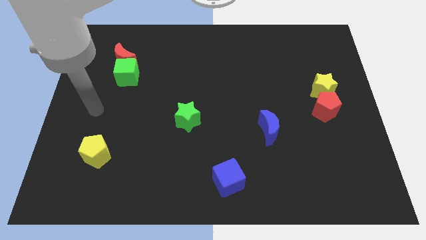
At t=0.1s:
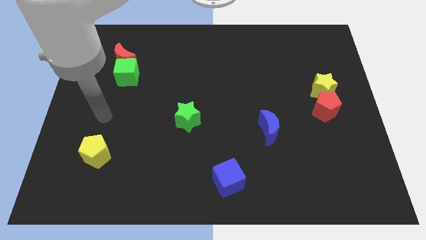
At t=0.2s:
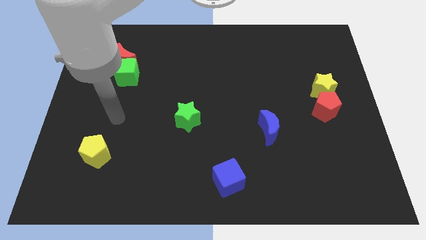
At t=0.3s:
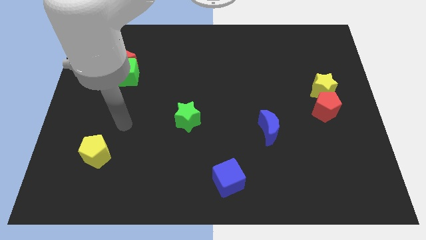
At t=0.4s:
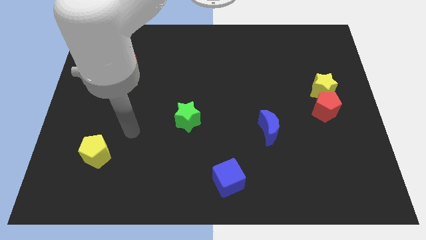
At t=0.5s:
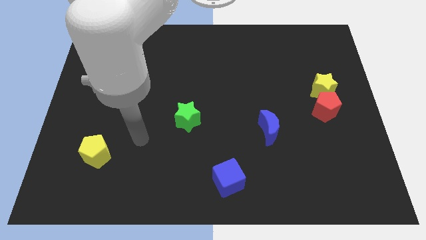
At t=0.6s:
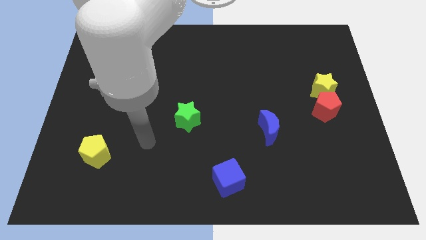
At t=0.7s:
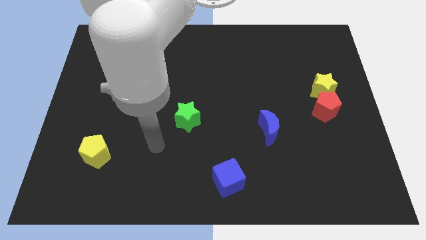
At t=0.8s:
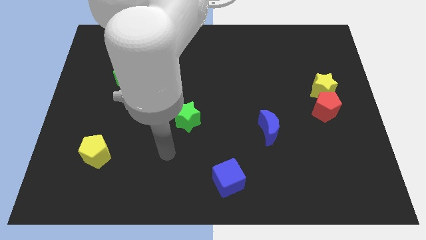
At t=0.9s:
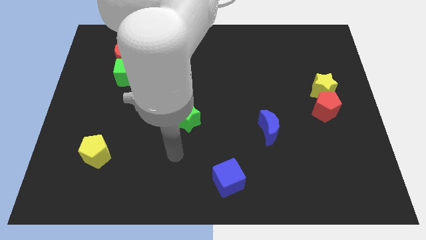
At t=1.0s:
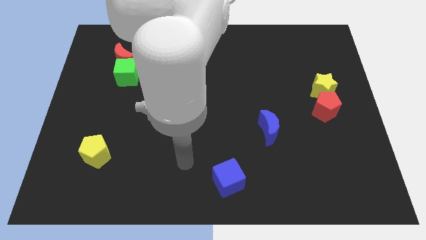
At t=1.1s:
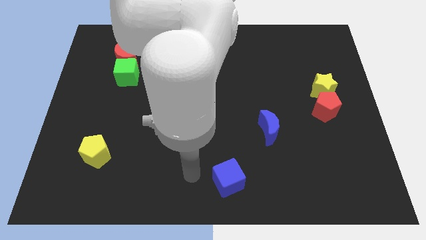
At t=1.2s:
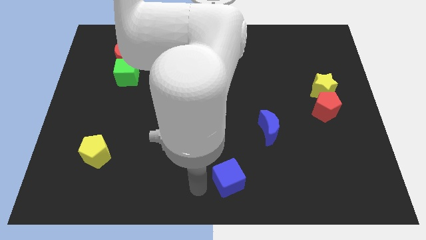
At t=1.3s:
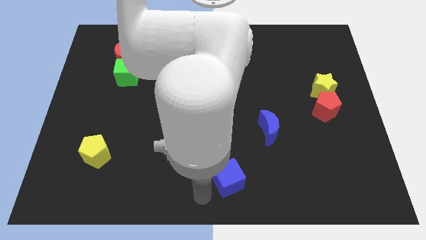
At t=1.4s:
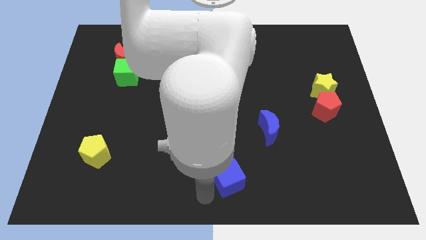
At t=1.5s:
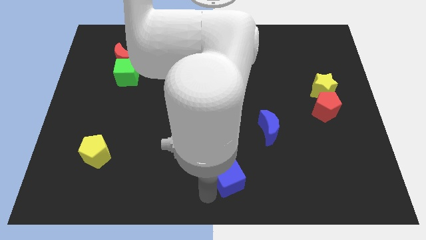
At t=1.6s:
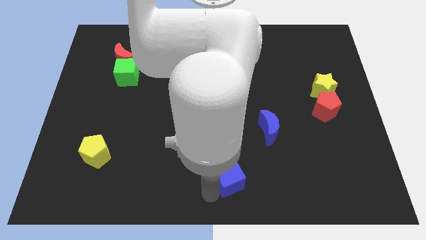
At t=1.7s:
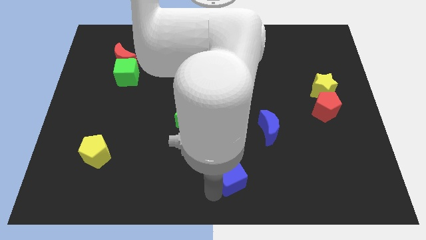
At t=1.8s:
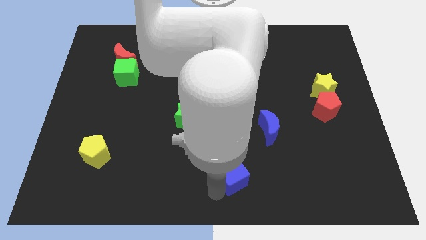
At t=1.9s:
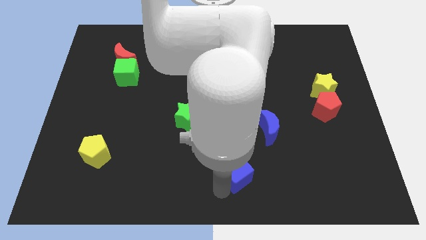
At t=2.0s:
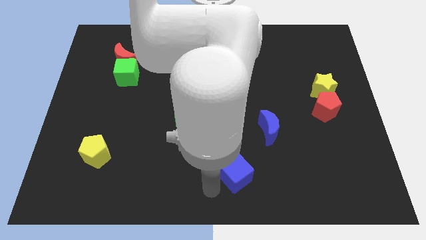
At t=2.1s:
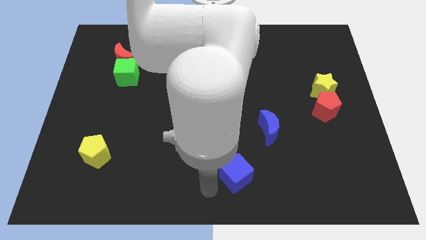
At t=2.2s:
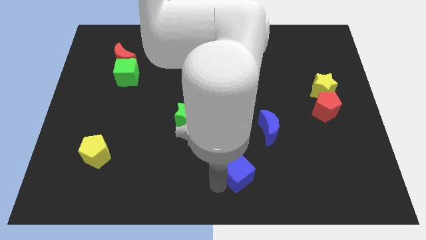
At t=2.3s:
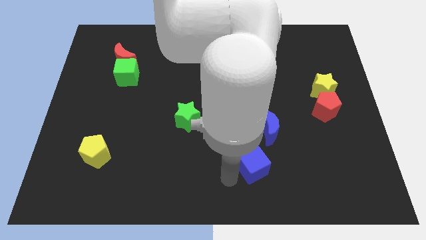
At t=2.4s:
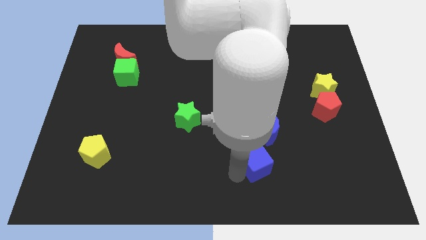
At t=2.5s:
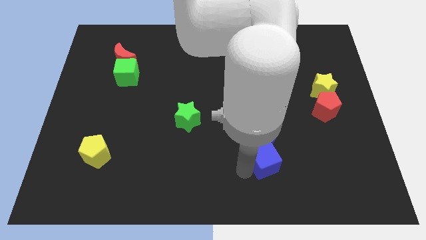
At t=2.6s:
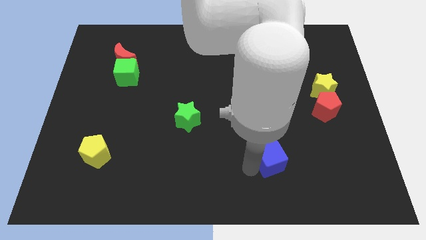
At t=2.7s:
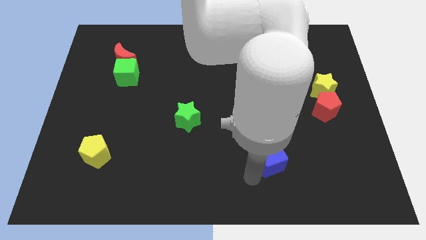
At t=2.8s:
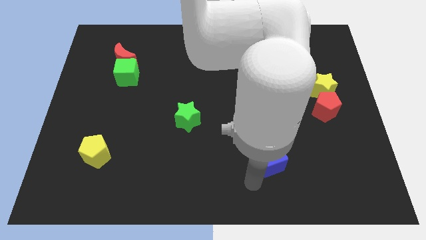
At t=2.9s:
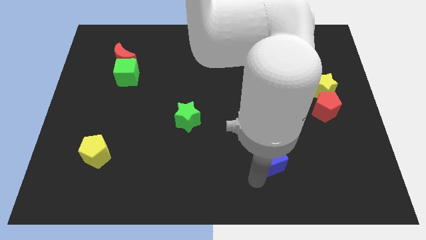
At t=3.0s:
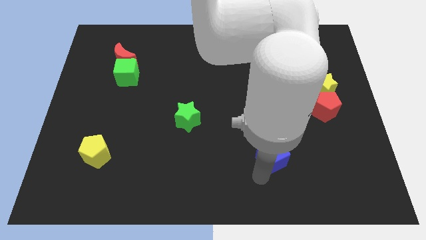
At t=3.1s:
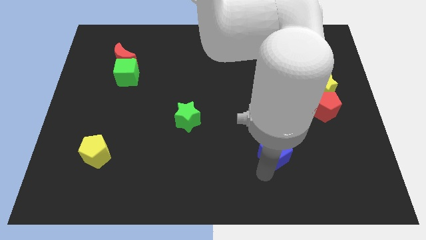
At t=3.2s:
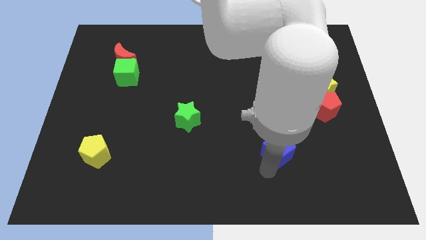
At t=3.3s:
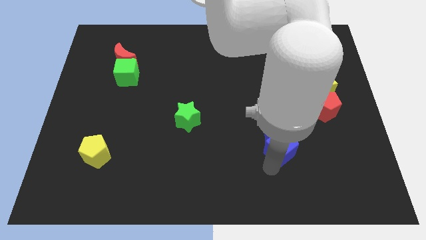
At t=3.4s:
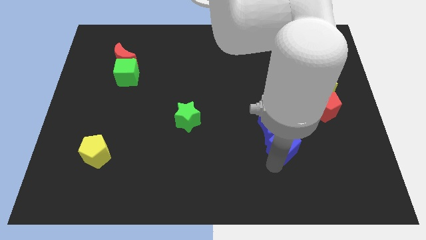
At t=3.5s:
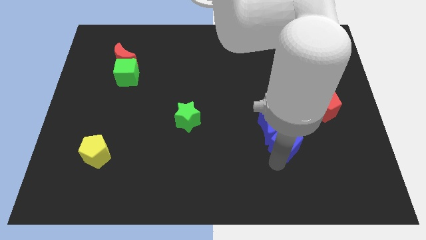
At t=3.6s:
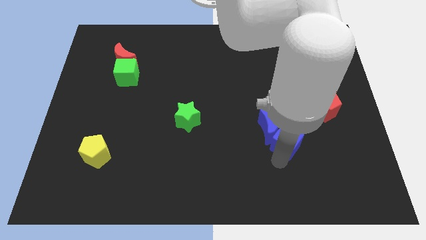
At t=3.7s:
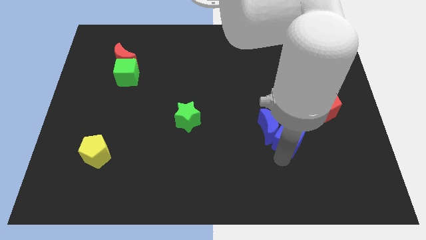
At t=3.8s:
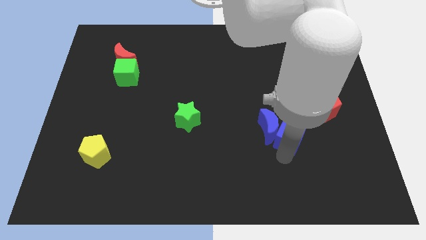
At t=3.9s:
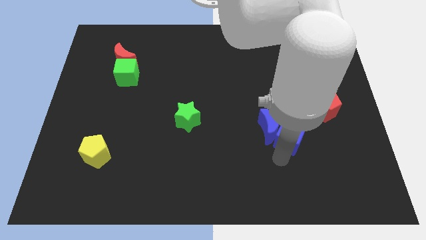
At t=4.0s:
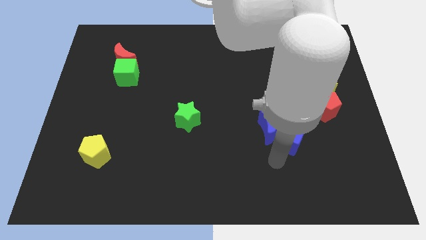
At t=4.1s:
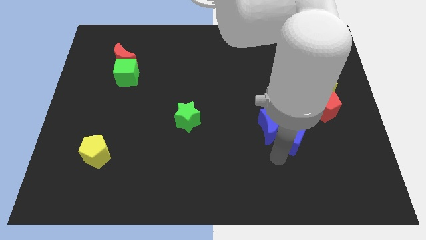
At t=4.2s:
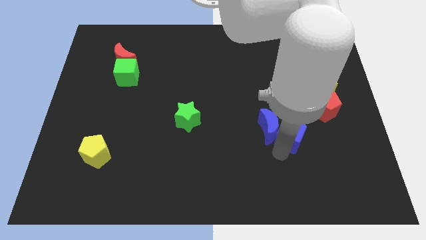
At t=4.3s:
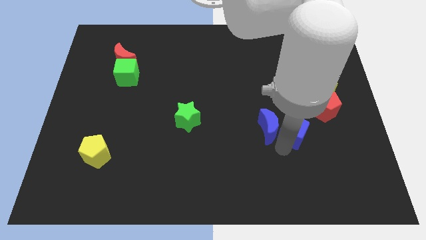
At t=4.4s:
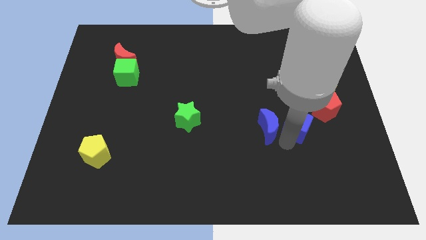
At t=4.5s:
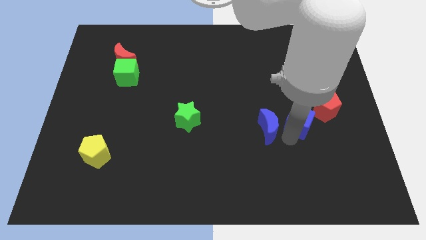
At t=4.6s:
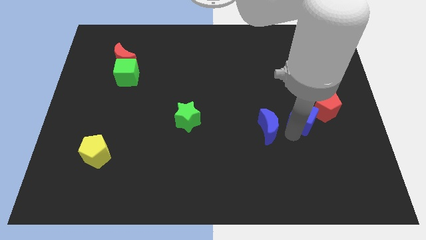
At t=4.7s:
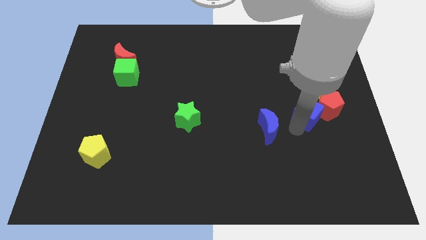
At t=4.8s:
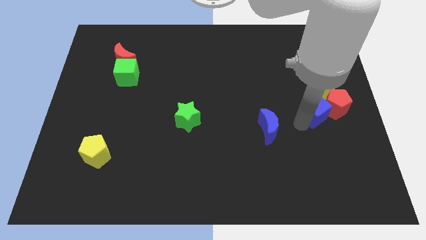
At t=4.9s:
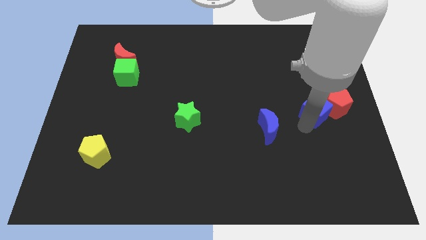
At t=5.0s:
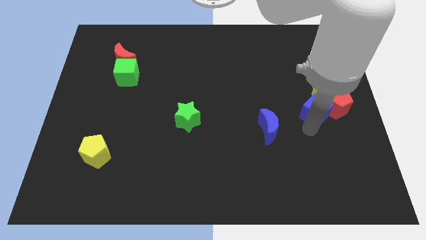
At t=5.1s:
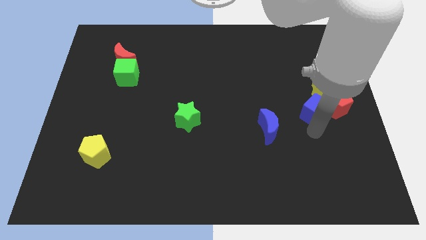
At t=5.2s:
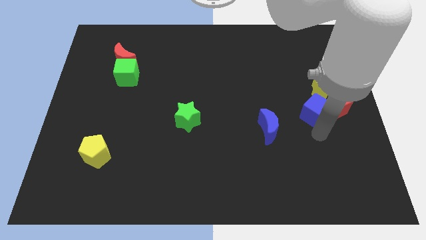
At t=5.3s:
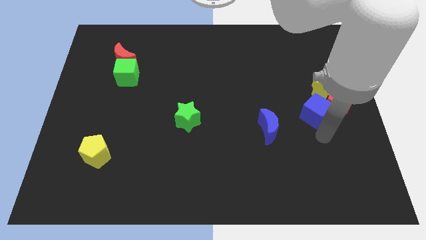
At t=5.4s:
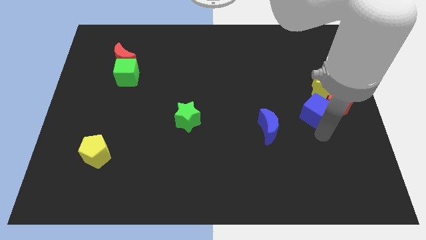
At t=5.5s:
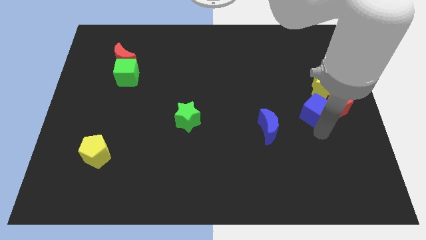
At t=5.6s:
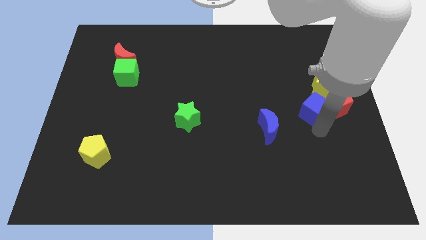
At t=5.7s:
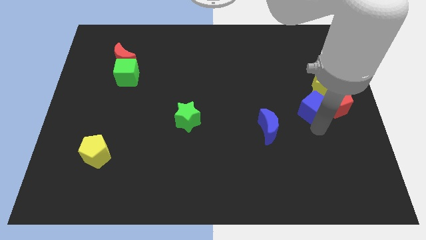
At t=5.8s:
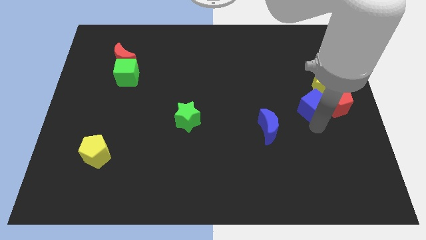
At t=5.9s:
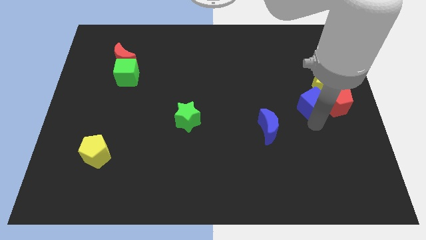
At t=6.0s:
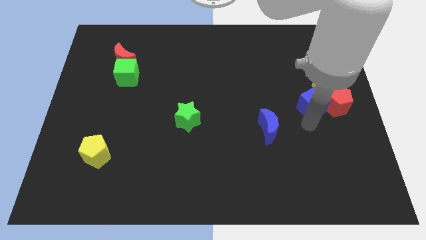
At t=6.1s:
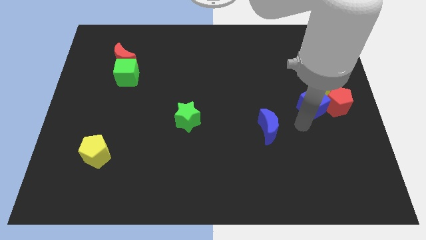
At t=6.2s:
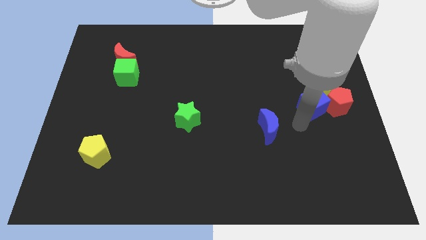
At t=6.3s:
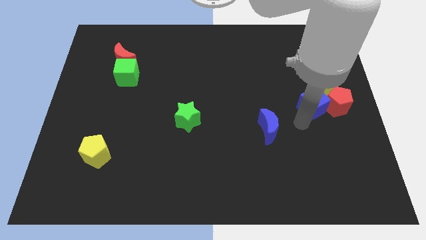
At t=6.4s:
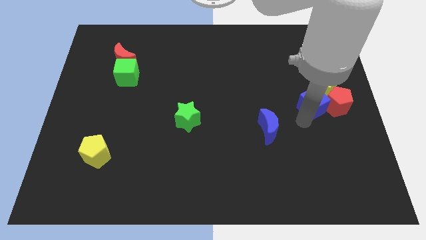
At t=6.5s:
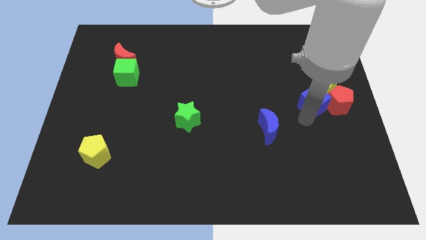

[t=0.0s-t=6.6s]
push the blue cube to the yellow star

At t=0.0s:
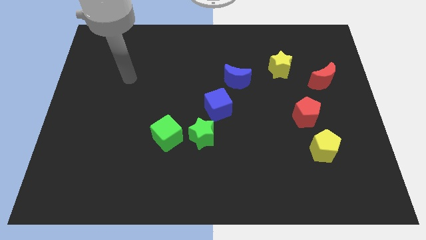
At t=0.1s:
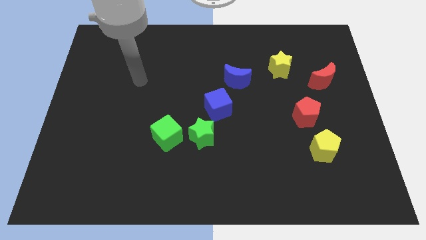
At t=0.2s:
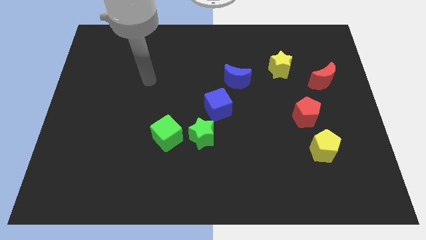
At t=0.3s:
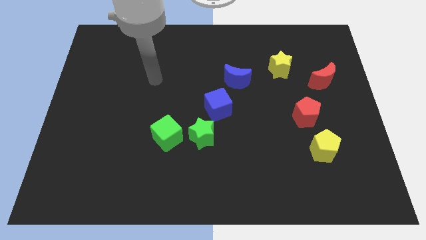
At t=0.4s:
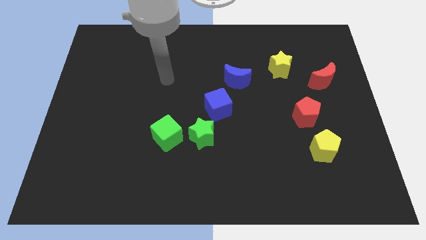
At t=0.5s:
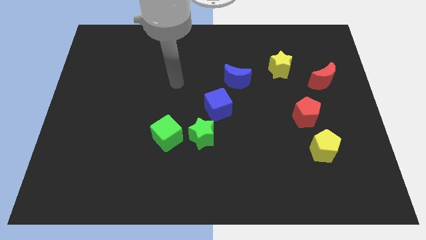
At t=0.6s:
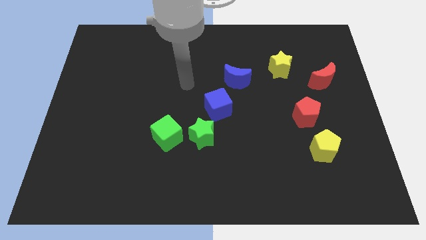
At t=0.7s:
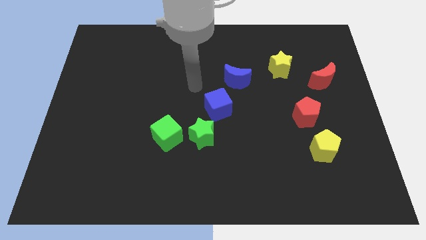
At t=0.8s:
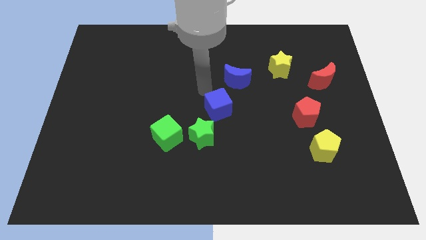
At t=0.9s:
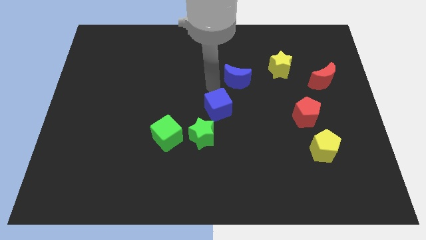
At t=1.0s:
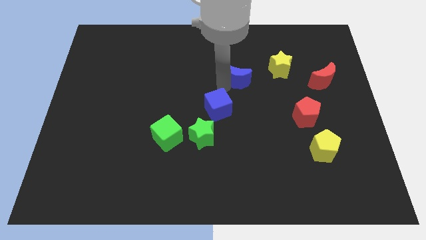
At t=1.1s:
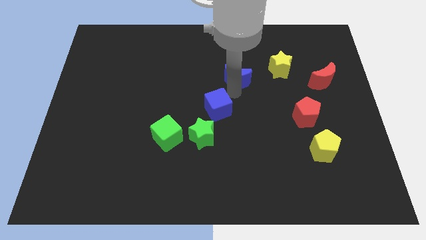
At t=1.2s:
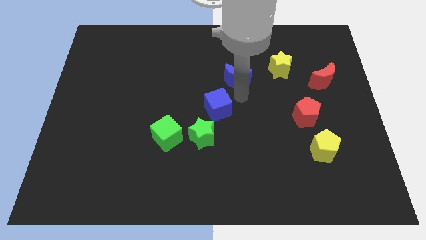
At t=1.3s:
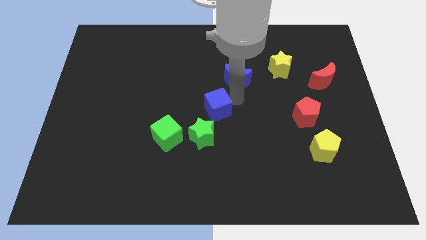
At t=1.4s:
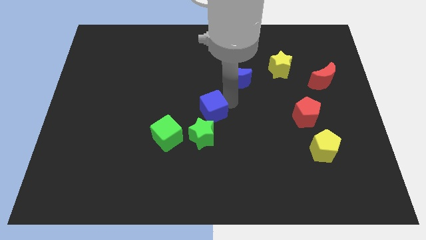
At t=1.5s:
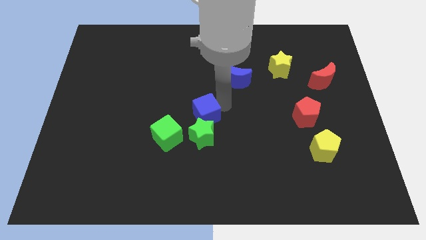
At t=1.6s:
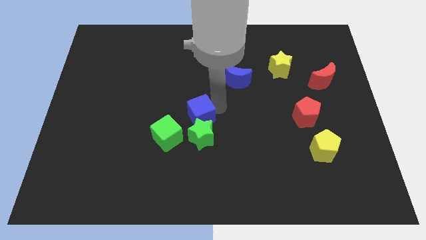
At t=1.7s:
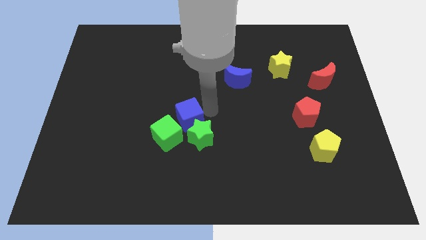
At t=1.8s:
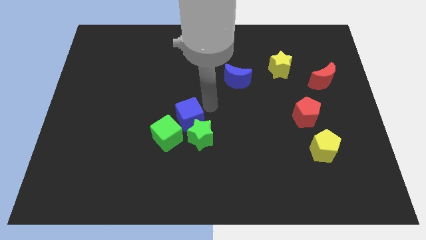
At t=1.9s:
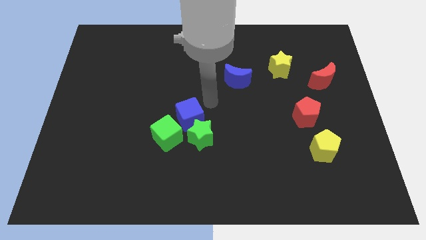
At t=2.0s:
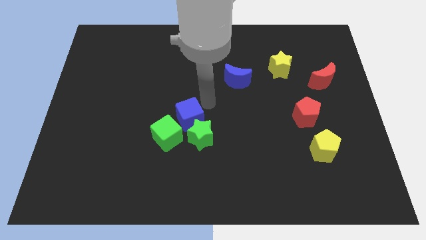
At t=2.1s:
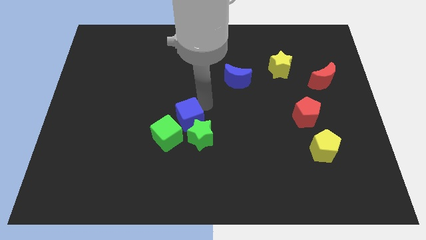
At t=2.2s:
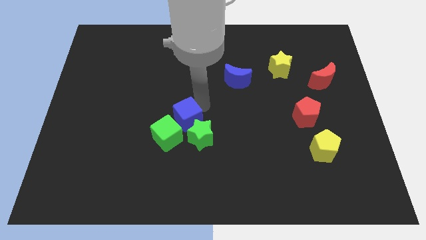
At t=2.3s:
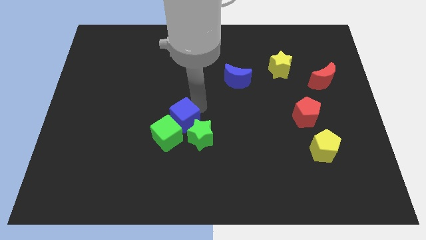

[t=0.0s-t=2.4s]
put the blue cube to the green cube
